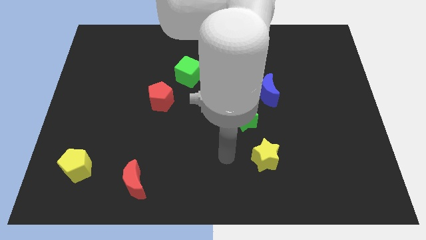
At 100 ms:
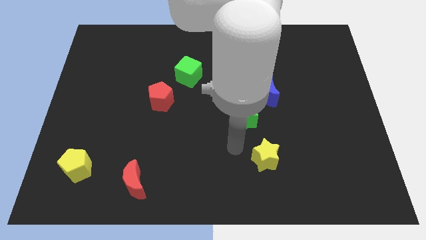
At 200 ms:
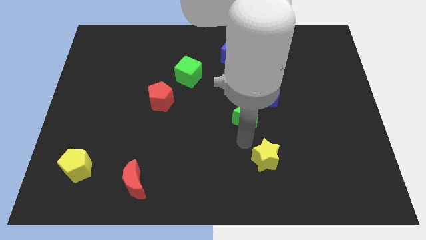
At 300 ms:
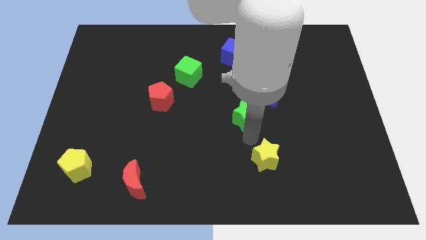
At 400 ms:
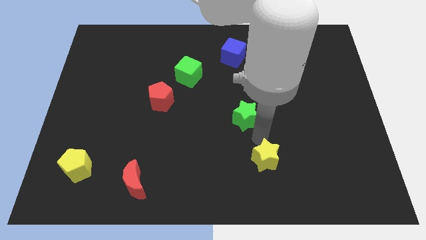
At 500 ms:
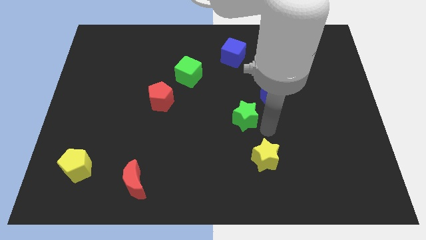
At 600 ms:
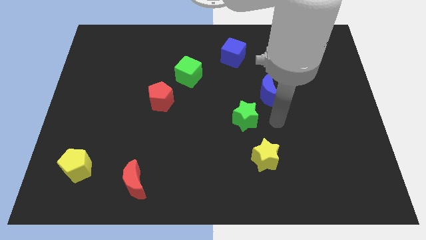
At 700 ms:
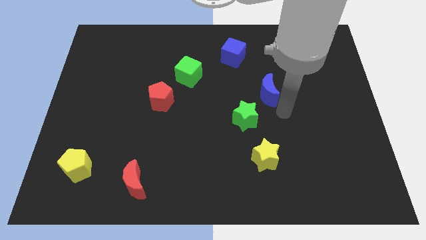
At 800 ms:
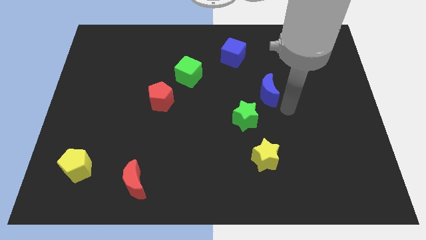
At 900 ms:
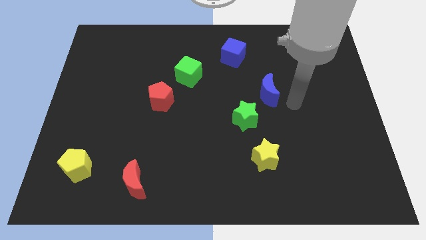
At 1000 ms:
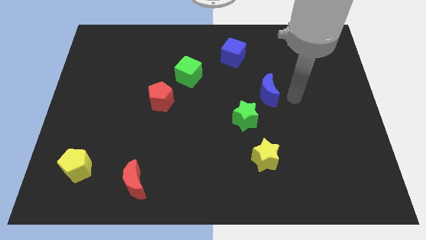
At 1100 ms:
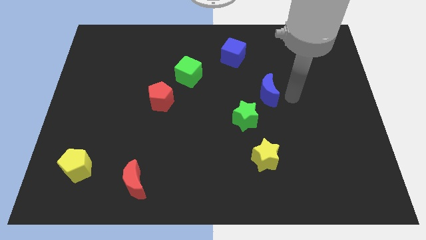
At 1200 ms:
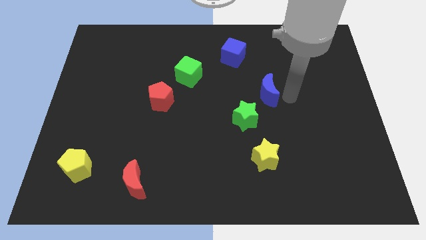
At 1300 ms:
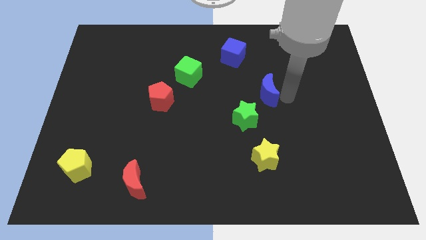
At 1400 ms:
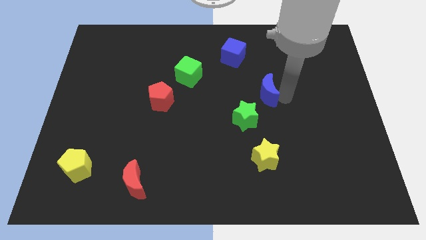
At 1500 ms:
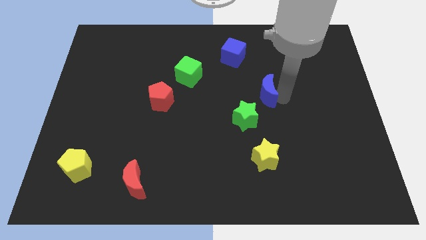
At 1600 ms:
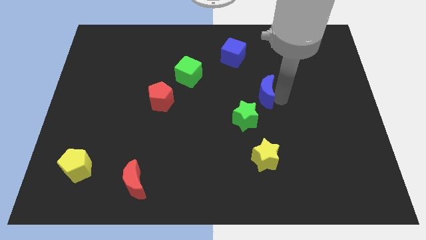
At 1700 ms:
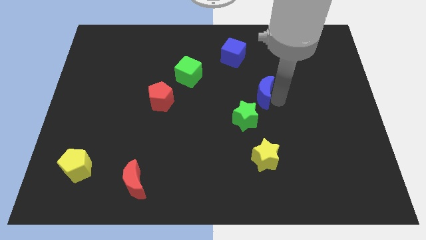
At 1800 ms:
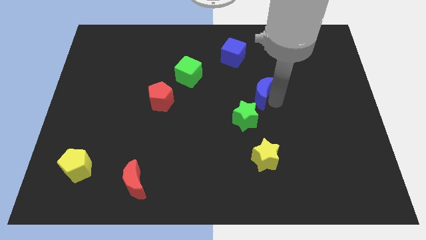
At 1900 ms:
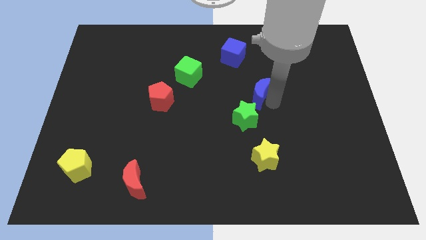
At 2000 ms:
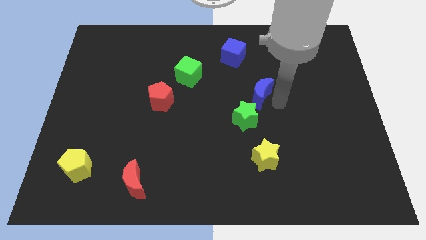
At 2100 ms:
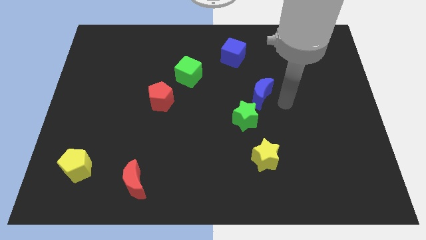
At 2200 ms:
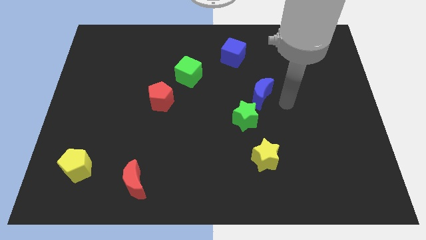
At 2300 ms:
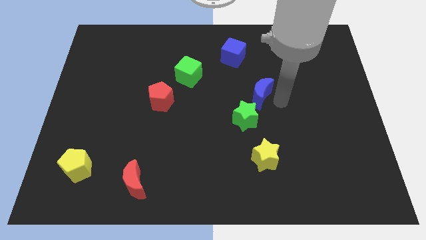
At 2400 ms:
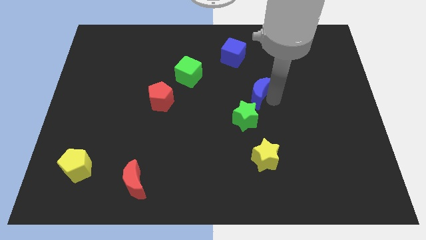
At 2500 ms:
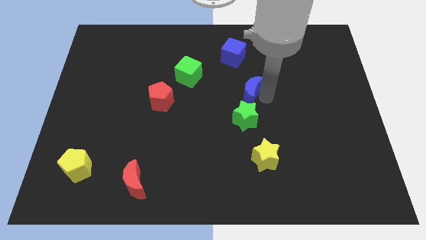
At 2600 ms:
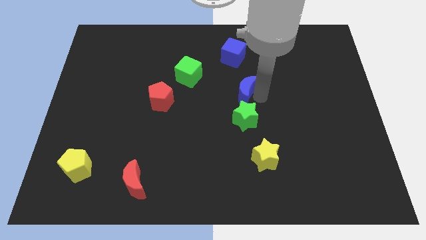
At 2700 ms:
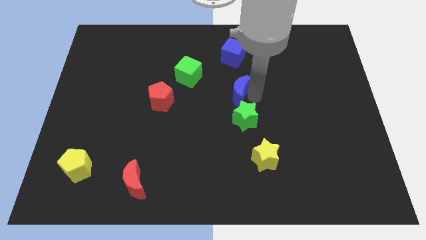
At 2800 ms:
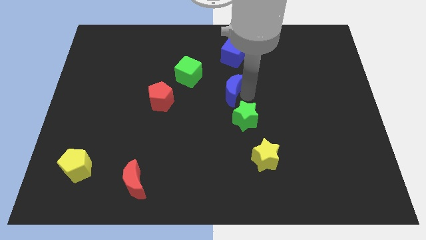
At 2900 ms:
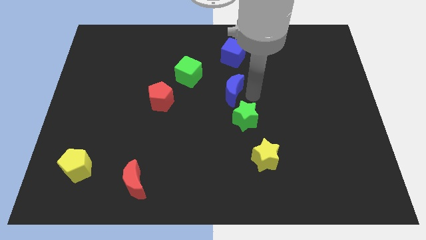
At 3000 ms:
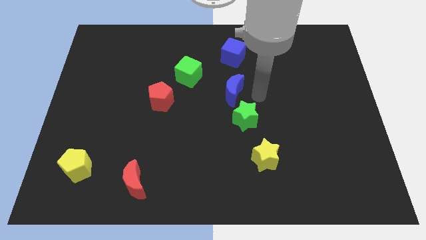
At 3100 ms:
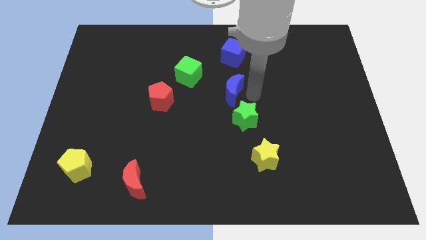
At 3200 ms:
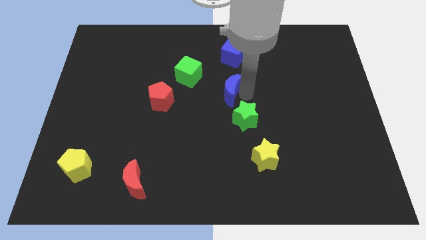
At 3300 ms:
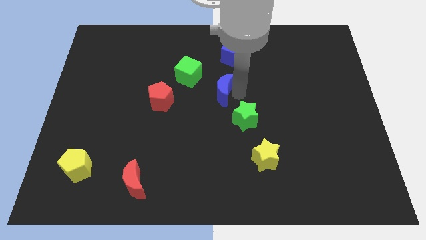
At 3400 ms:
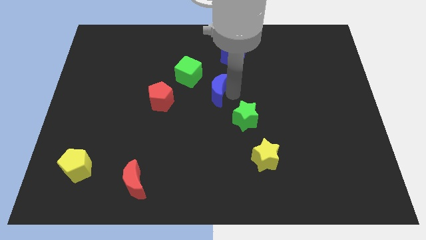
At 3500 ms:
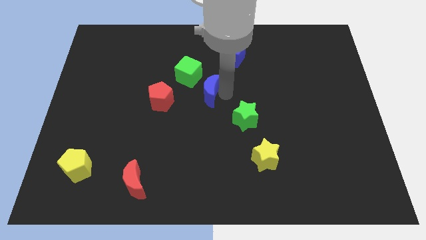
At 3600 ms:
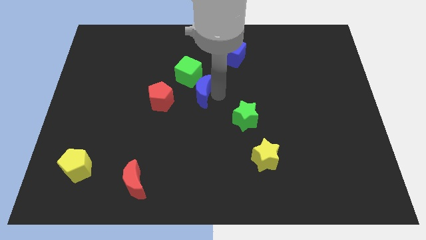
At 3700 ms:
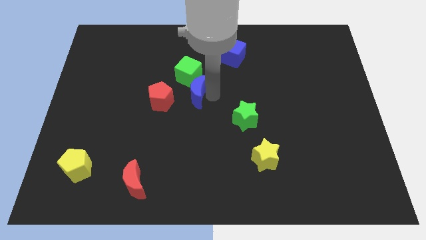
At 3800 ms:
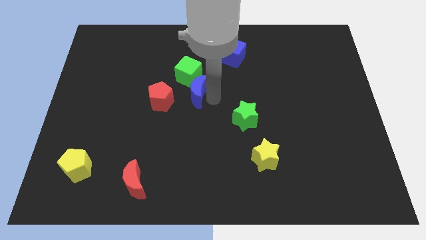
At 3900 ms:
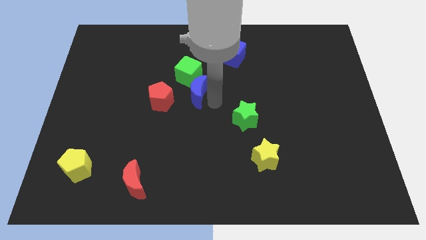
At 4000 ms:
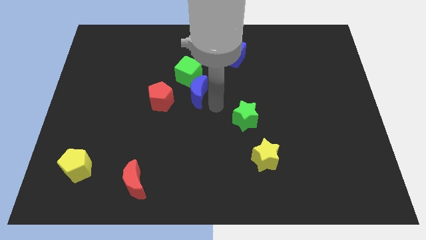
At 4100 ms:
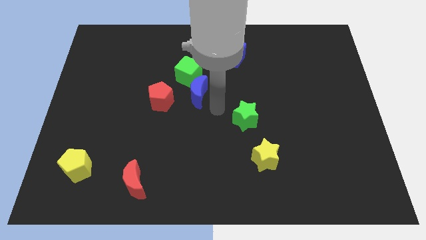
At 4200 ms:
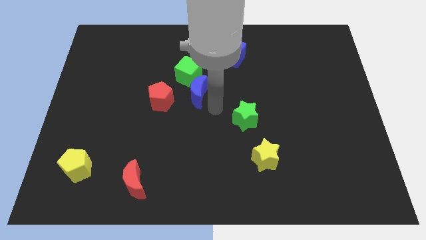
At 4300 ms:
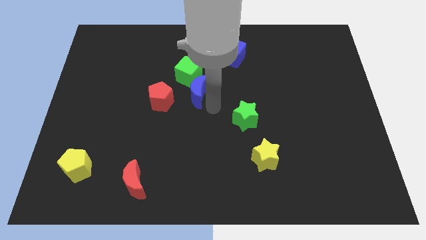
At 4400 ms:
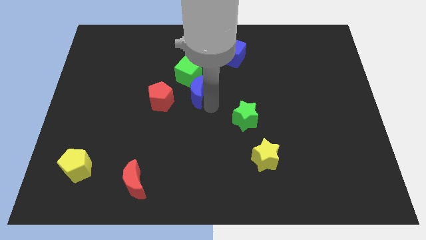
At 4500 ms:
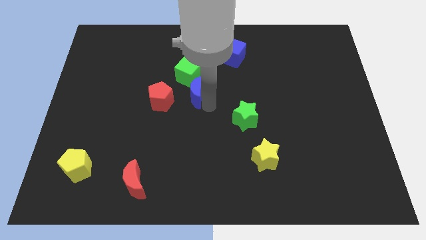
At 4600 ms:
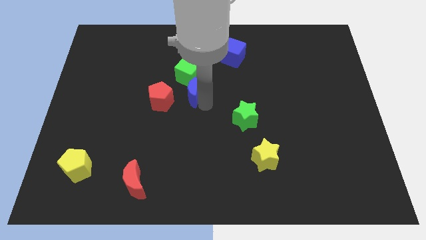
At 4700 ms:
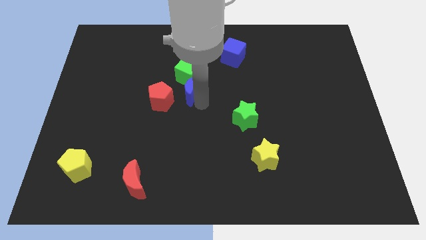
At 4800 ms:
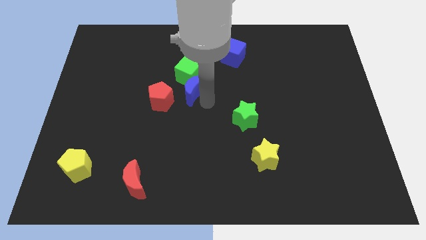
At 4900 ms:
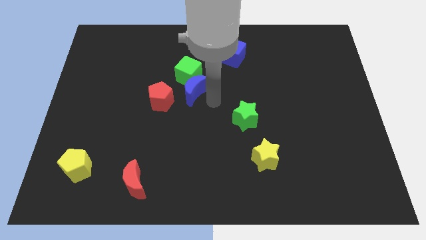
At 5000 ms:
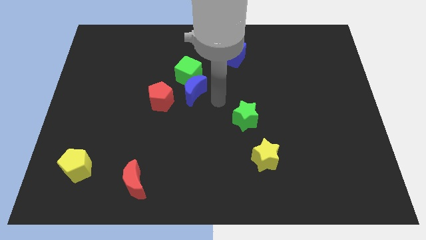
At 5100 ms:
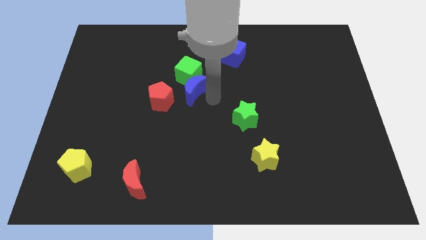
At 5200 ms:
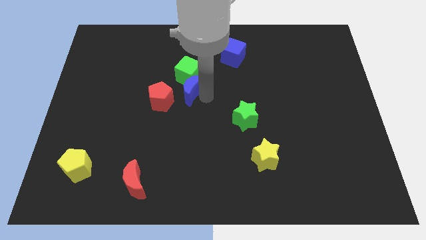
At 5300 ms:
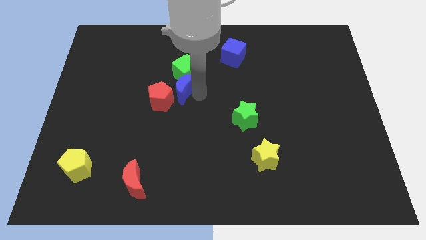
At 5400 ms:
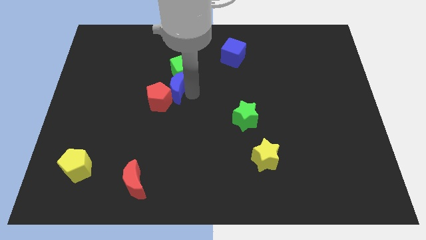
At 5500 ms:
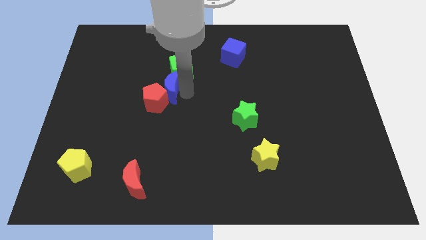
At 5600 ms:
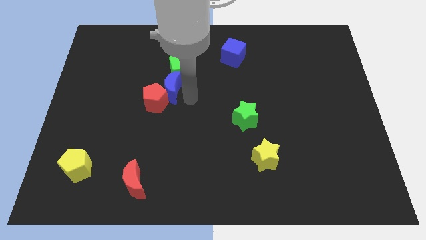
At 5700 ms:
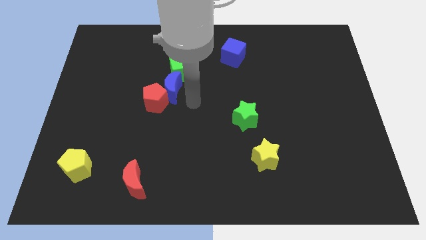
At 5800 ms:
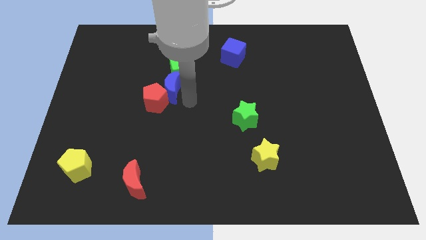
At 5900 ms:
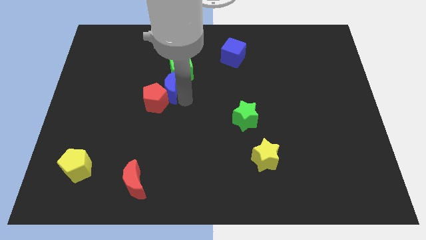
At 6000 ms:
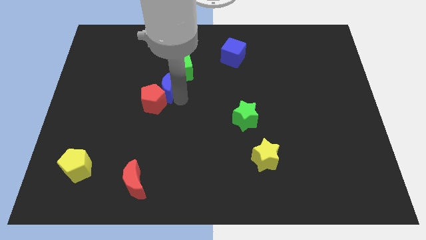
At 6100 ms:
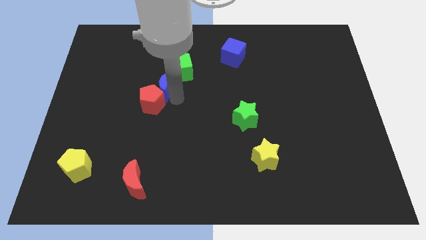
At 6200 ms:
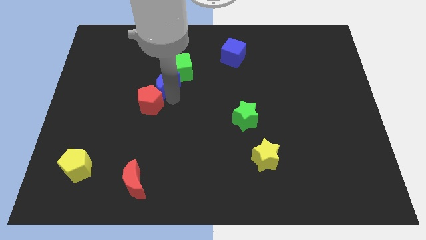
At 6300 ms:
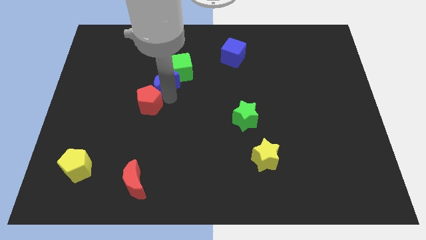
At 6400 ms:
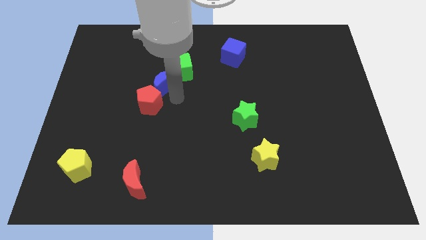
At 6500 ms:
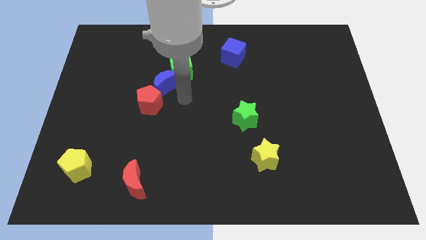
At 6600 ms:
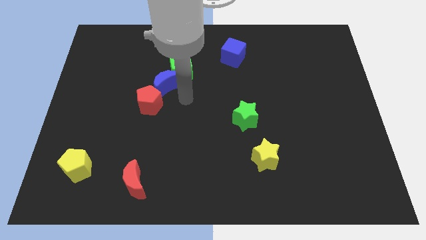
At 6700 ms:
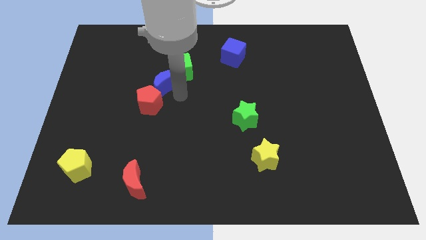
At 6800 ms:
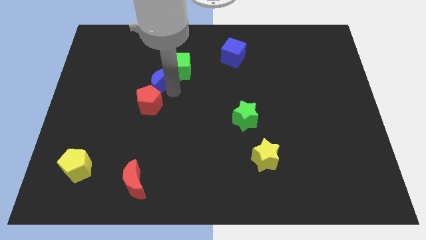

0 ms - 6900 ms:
push the blue moon to the left of the green cube

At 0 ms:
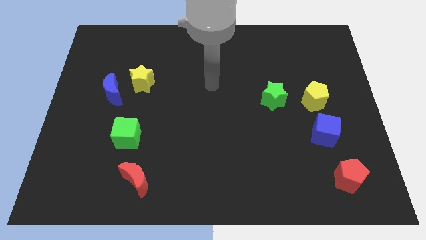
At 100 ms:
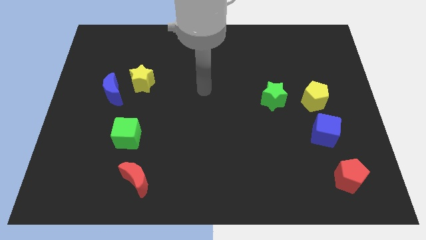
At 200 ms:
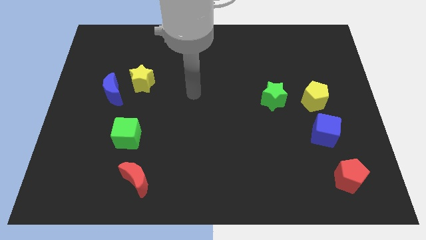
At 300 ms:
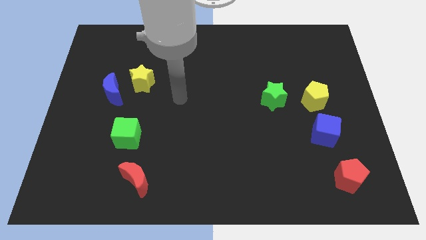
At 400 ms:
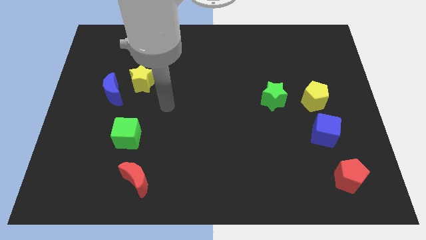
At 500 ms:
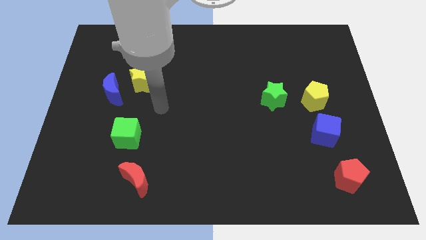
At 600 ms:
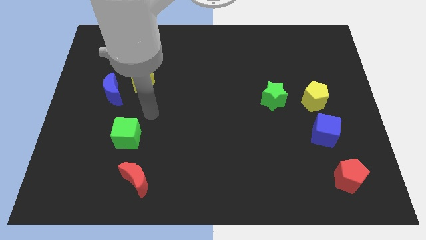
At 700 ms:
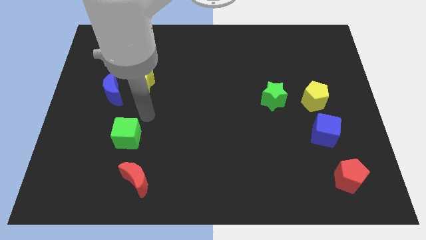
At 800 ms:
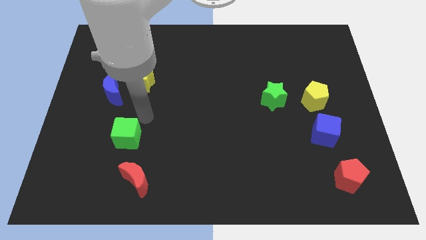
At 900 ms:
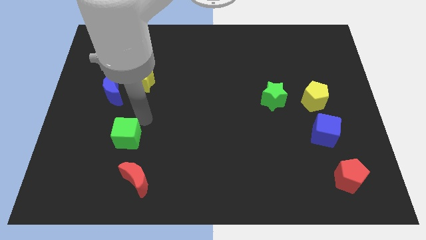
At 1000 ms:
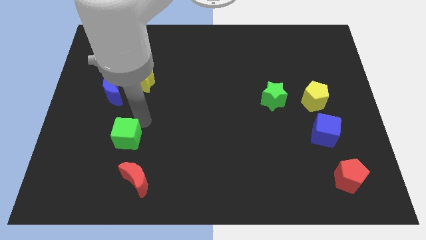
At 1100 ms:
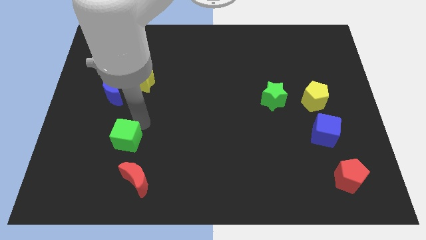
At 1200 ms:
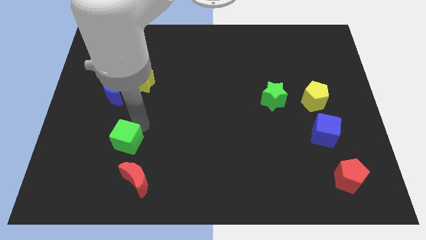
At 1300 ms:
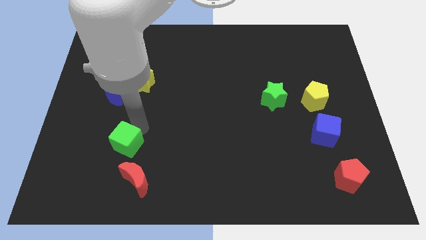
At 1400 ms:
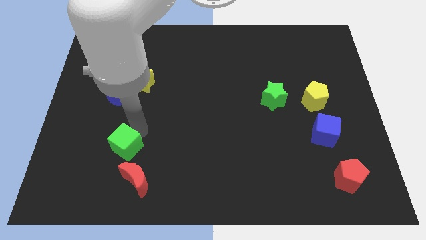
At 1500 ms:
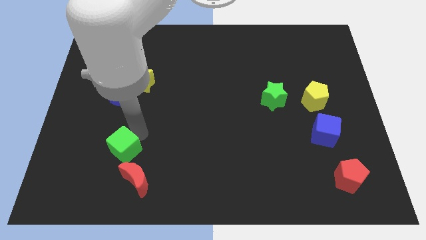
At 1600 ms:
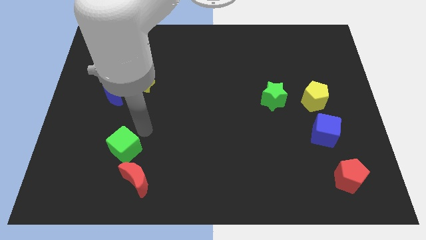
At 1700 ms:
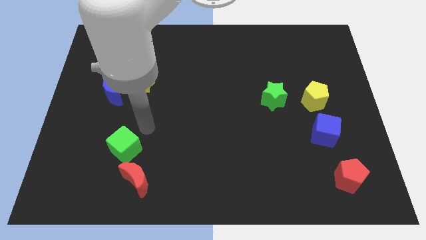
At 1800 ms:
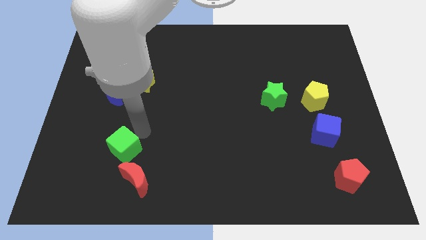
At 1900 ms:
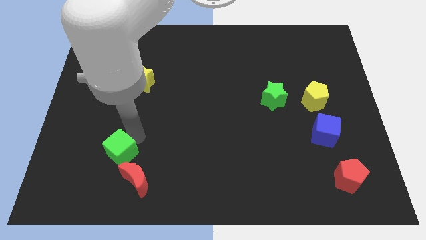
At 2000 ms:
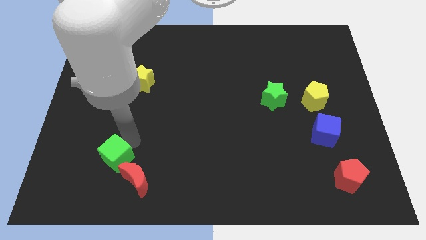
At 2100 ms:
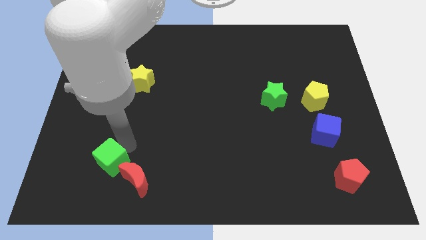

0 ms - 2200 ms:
push the green cube to the left of the red moon
